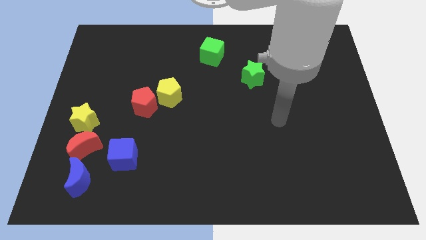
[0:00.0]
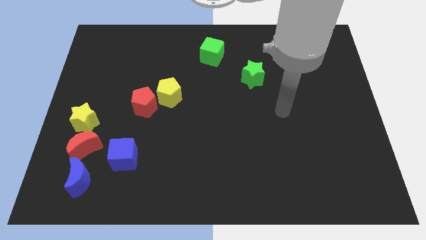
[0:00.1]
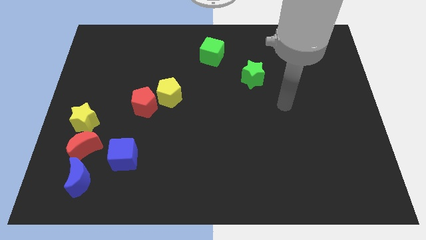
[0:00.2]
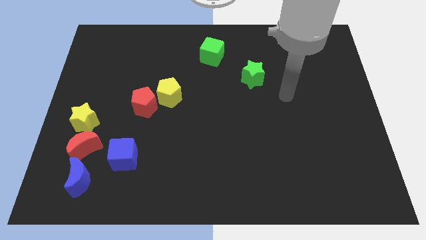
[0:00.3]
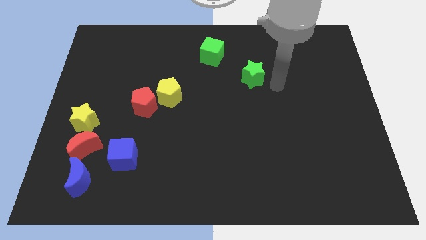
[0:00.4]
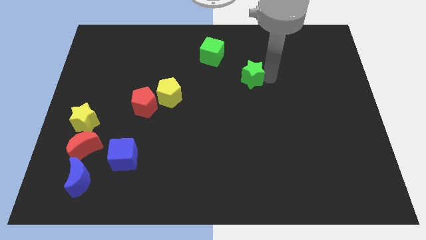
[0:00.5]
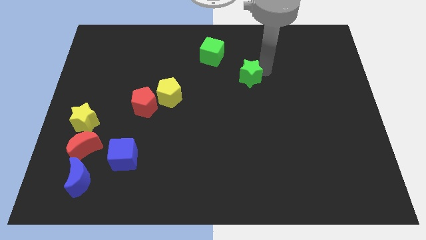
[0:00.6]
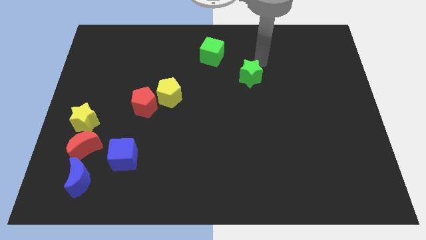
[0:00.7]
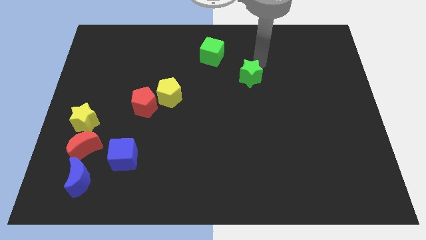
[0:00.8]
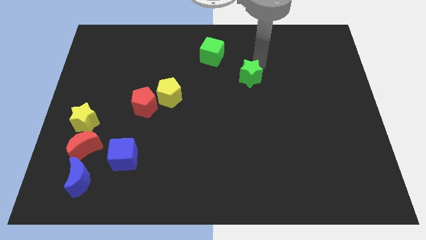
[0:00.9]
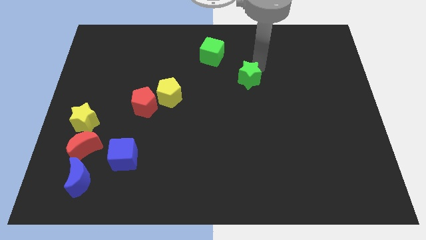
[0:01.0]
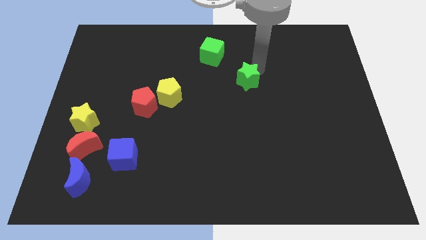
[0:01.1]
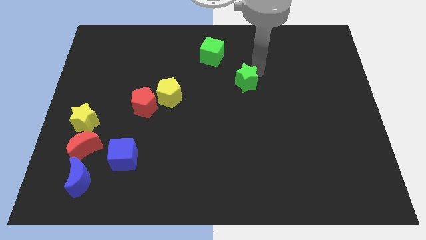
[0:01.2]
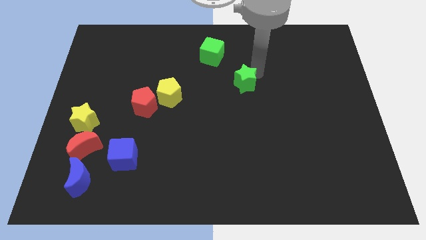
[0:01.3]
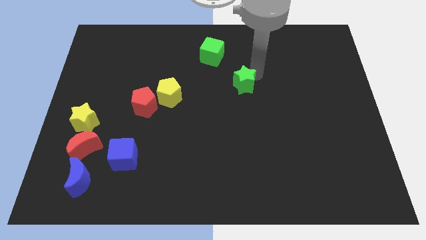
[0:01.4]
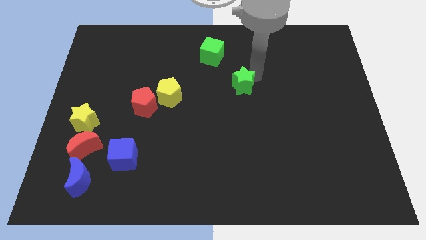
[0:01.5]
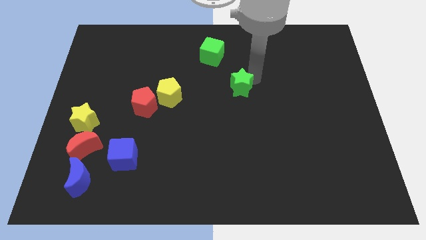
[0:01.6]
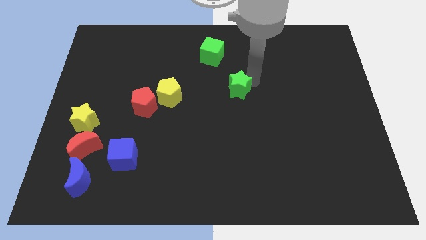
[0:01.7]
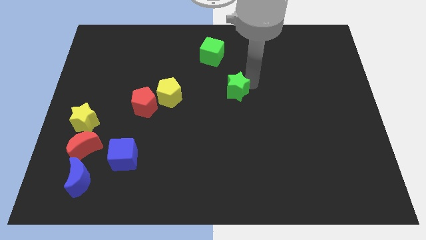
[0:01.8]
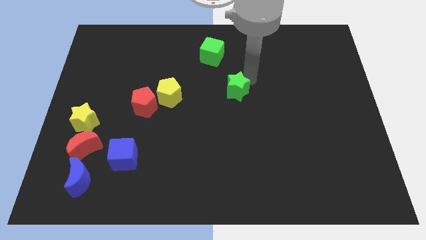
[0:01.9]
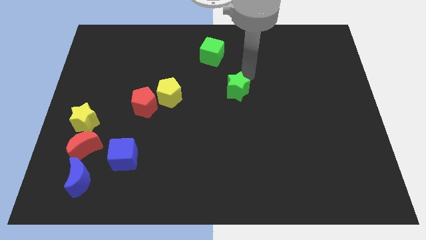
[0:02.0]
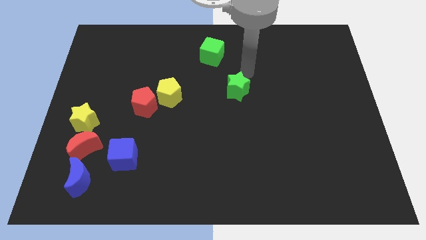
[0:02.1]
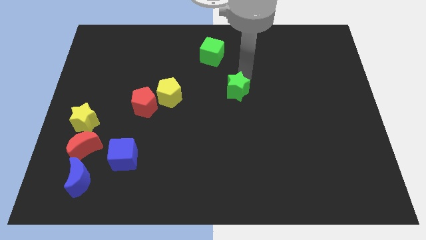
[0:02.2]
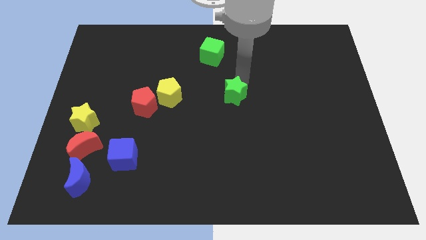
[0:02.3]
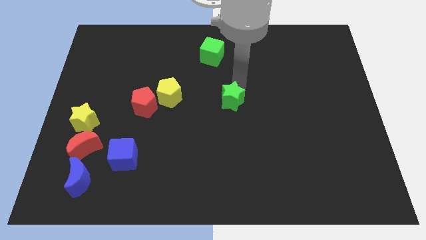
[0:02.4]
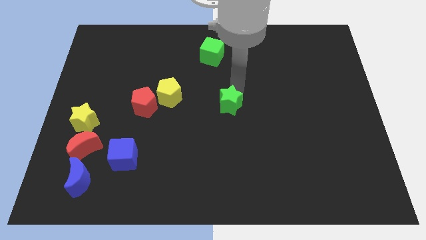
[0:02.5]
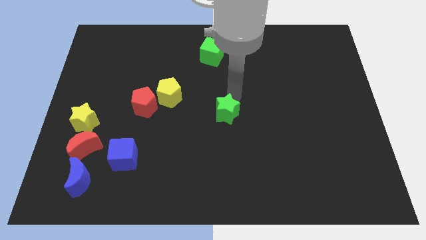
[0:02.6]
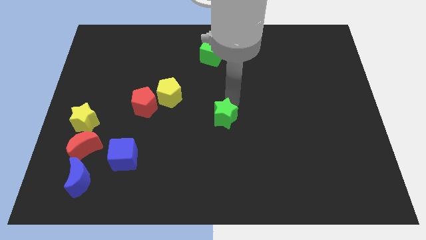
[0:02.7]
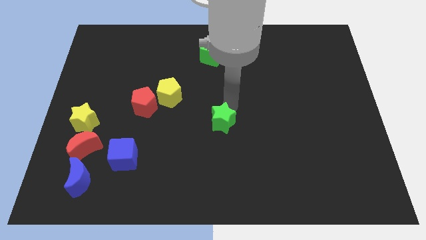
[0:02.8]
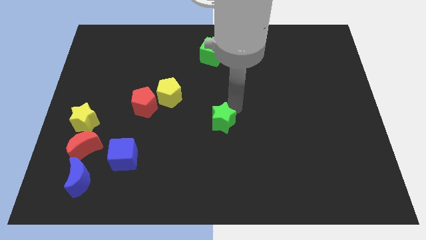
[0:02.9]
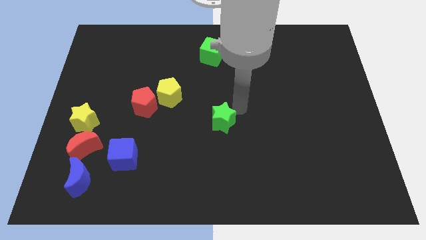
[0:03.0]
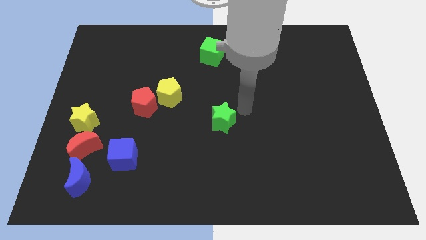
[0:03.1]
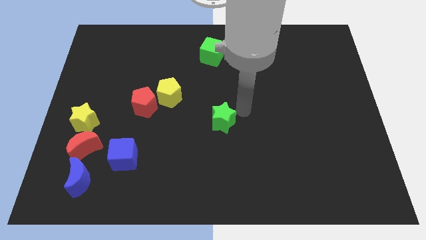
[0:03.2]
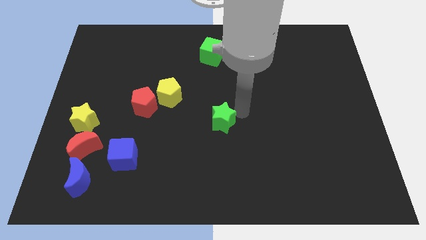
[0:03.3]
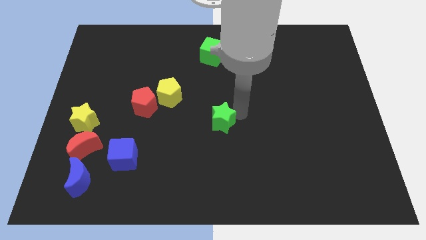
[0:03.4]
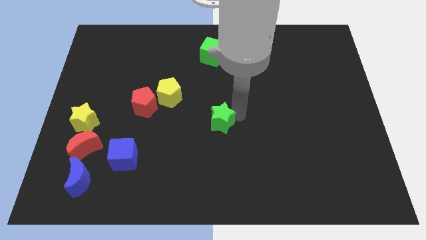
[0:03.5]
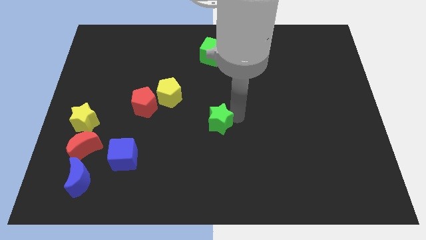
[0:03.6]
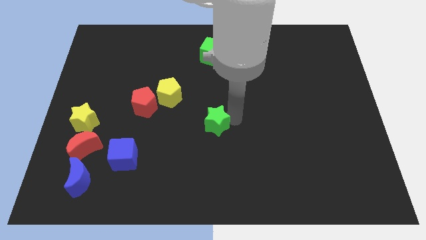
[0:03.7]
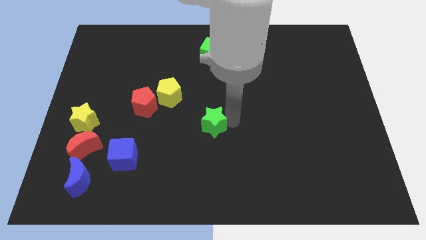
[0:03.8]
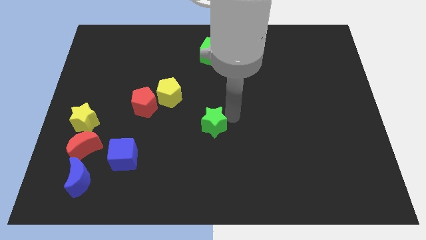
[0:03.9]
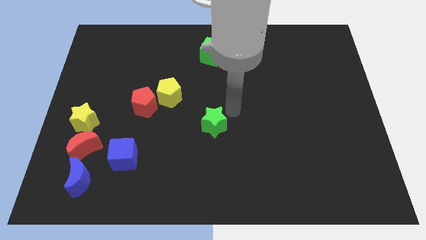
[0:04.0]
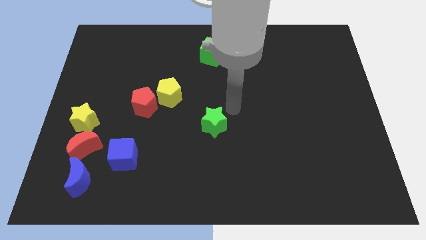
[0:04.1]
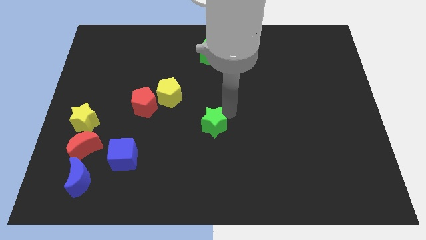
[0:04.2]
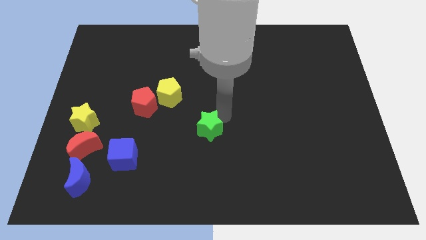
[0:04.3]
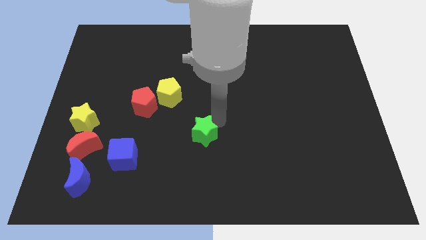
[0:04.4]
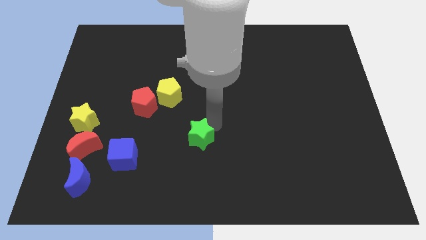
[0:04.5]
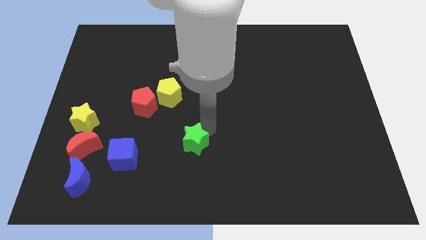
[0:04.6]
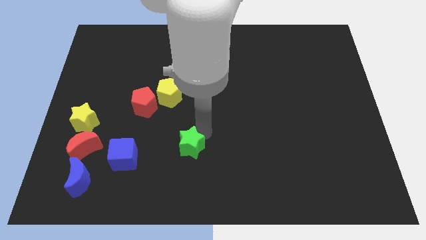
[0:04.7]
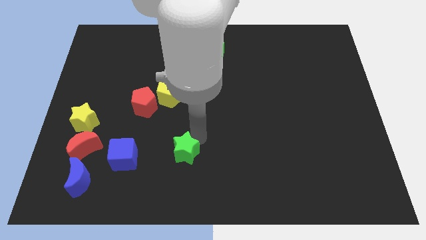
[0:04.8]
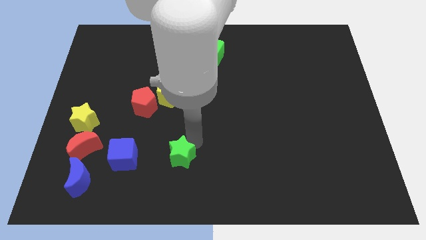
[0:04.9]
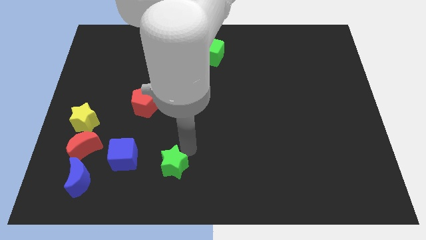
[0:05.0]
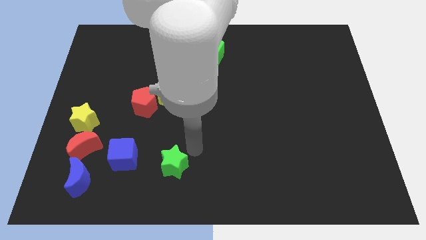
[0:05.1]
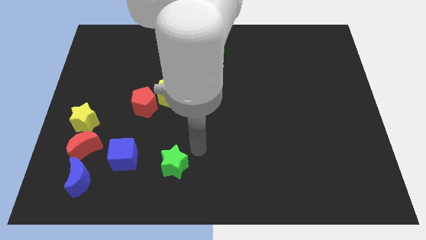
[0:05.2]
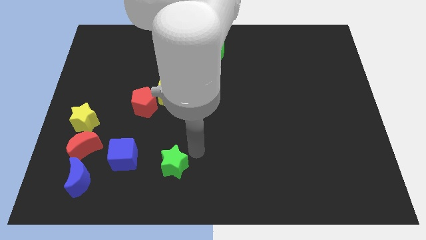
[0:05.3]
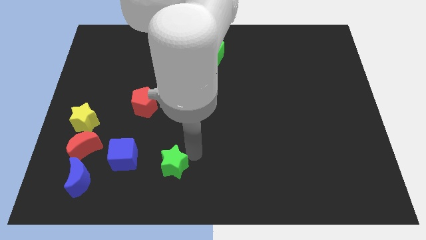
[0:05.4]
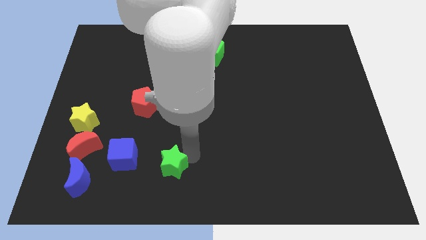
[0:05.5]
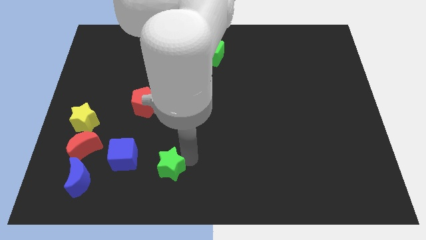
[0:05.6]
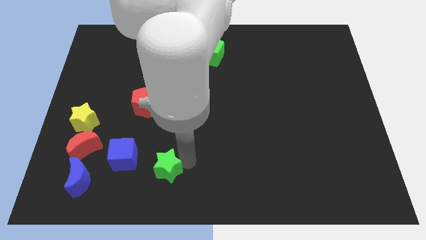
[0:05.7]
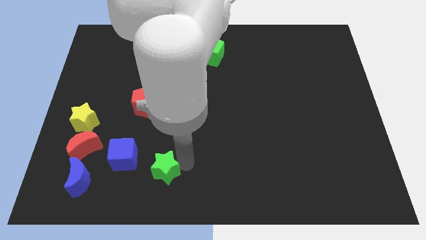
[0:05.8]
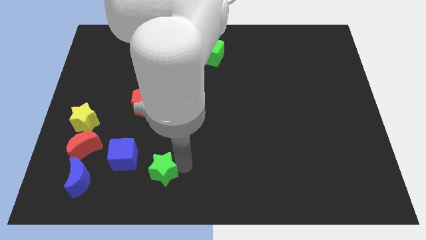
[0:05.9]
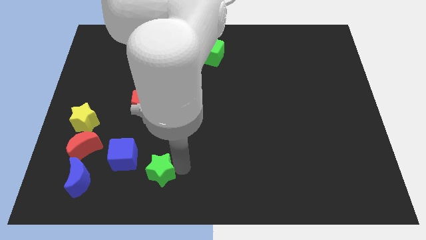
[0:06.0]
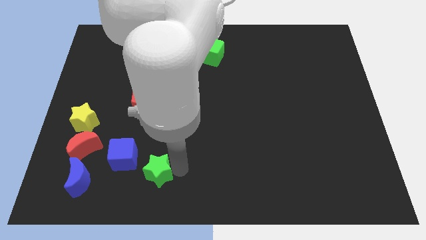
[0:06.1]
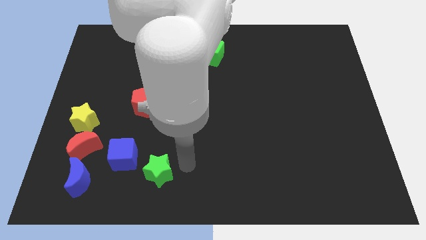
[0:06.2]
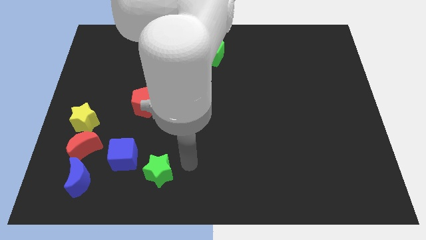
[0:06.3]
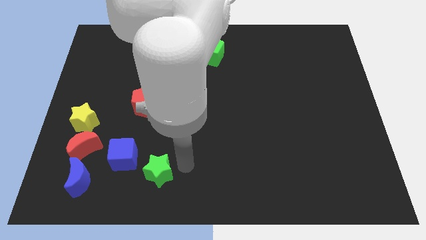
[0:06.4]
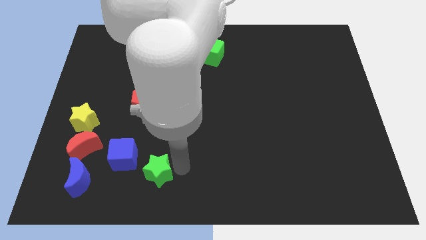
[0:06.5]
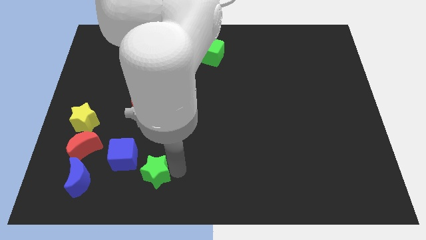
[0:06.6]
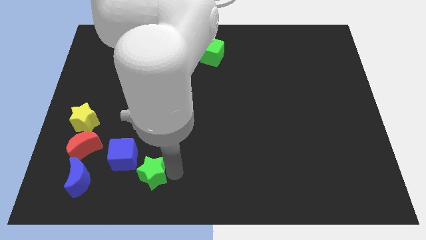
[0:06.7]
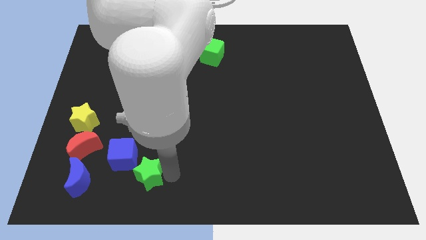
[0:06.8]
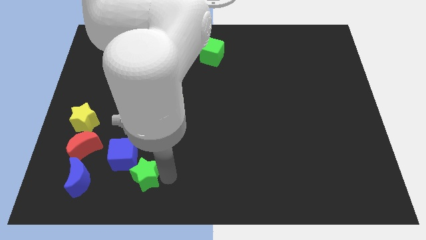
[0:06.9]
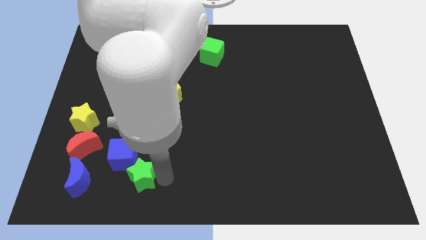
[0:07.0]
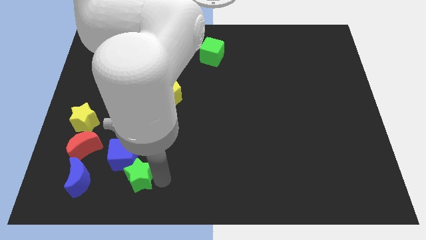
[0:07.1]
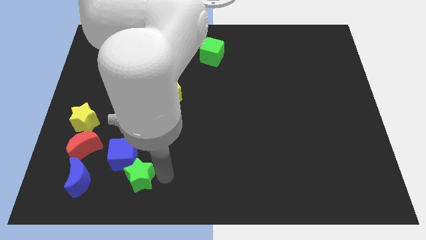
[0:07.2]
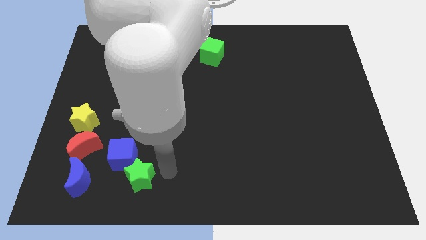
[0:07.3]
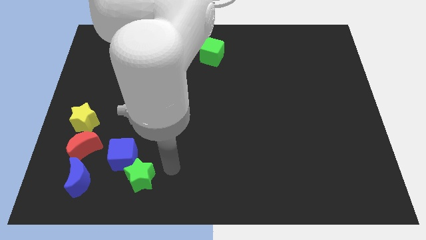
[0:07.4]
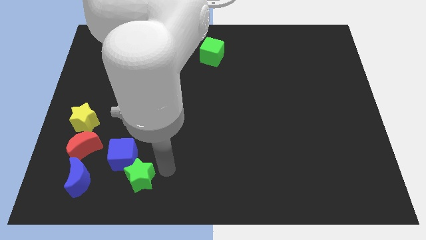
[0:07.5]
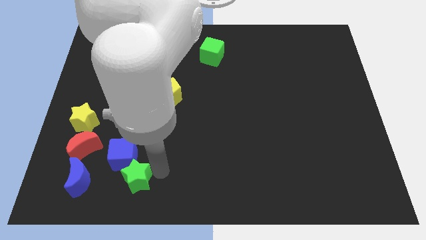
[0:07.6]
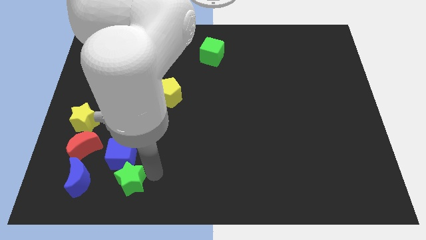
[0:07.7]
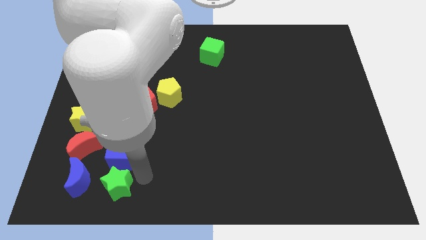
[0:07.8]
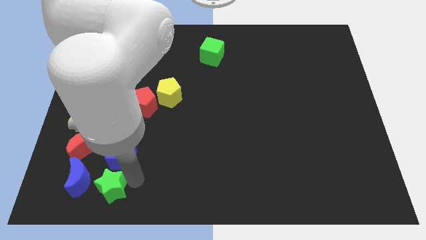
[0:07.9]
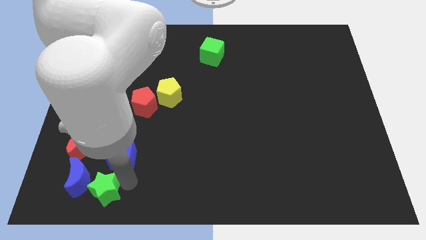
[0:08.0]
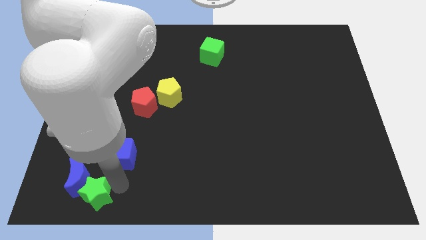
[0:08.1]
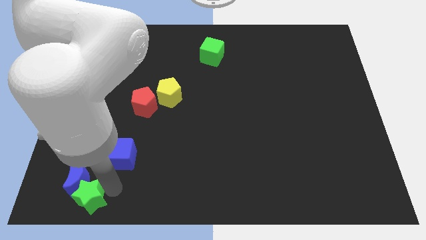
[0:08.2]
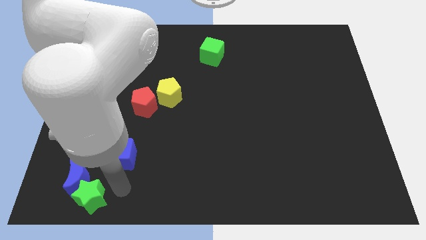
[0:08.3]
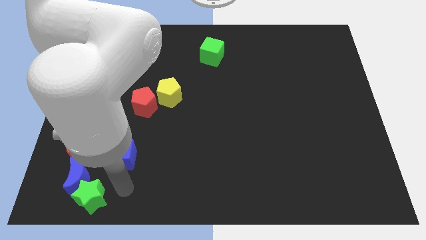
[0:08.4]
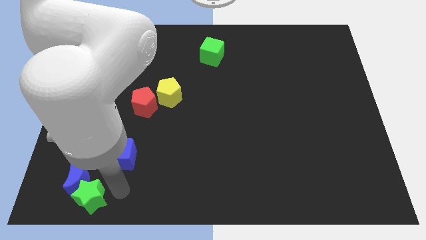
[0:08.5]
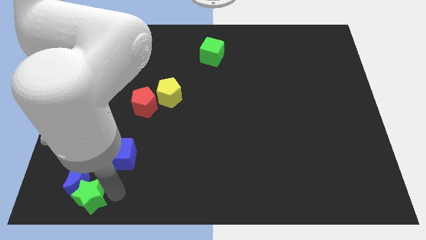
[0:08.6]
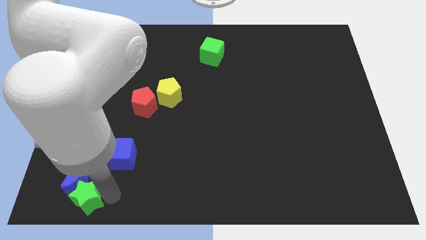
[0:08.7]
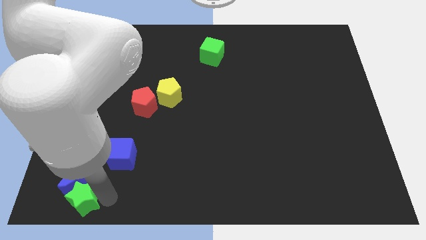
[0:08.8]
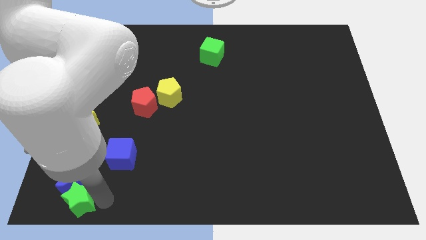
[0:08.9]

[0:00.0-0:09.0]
put the green star to the bottom left
